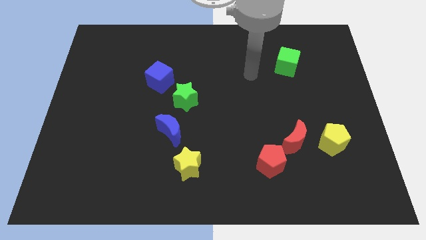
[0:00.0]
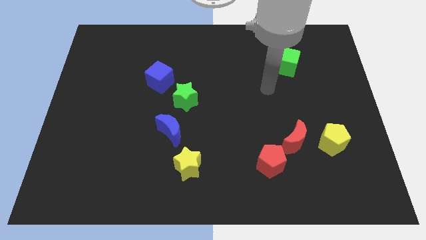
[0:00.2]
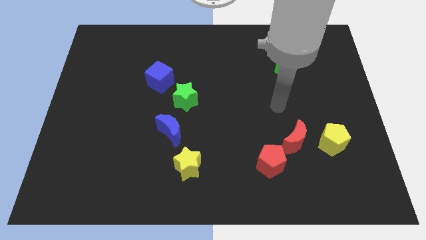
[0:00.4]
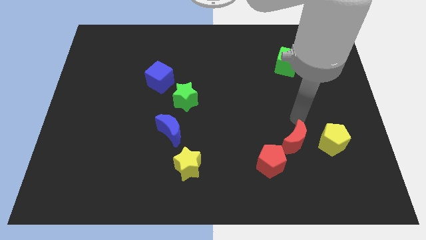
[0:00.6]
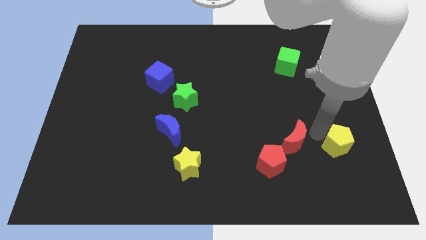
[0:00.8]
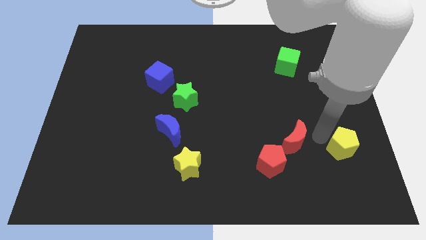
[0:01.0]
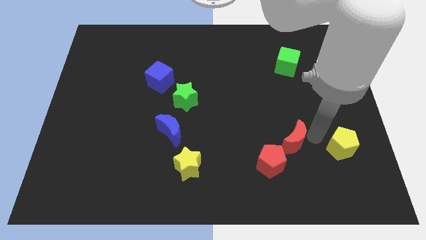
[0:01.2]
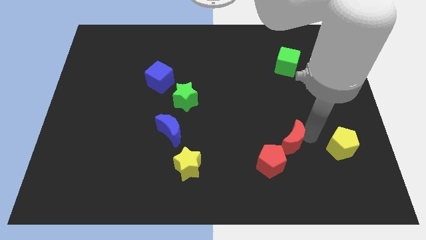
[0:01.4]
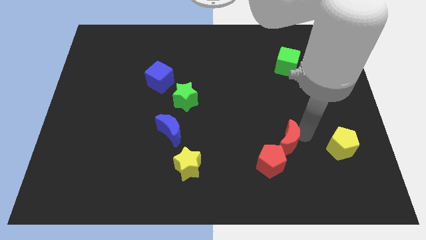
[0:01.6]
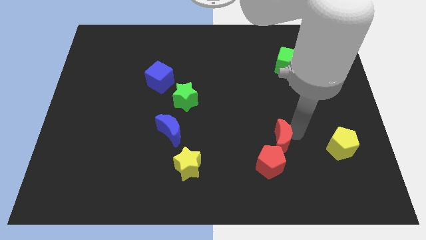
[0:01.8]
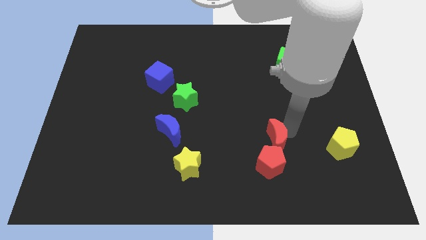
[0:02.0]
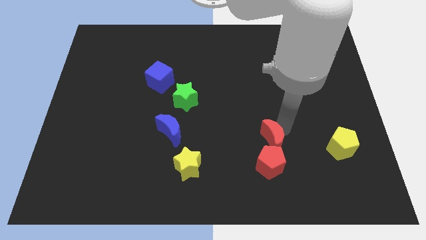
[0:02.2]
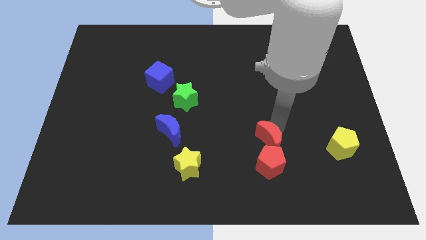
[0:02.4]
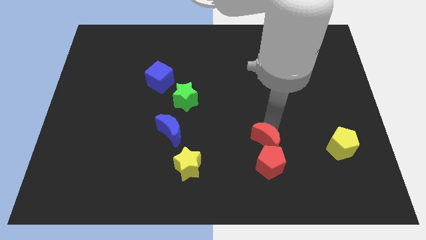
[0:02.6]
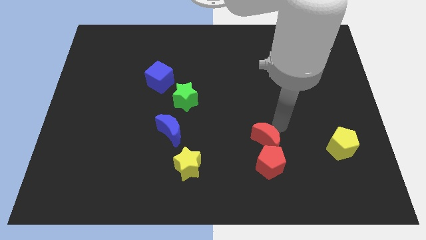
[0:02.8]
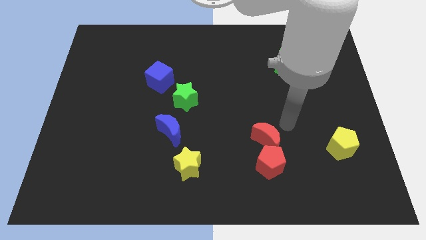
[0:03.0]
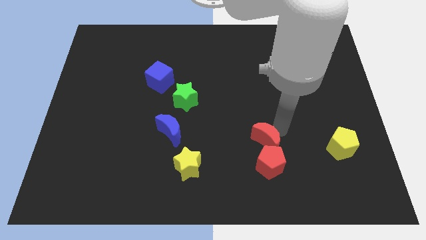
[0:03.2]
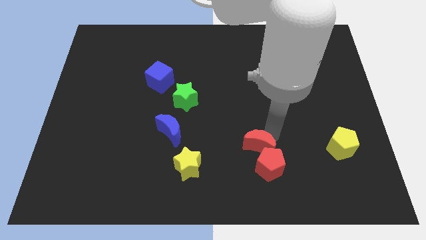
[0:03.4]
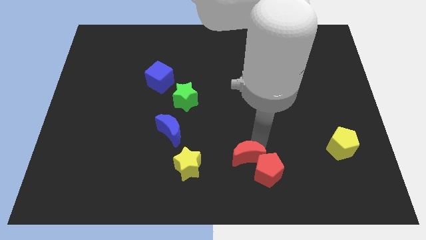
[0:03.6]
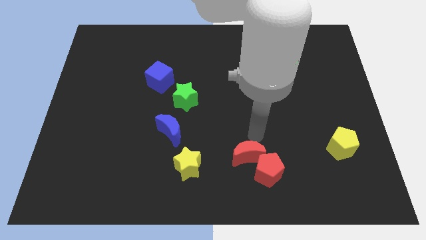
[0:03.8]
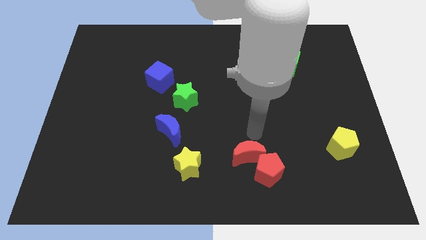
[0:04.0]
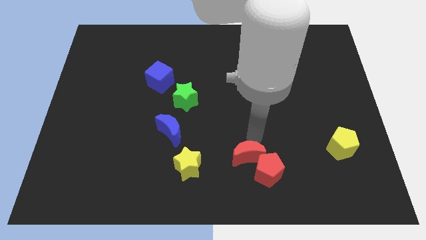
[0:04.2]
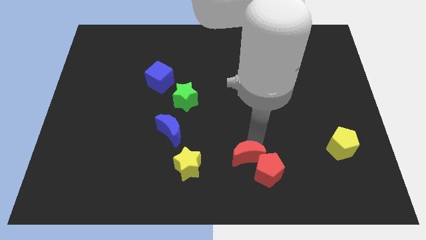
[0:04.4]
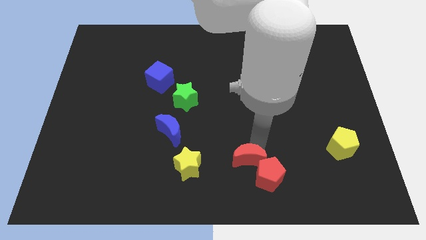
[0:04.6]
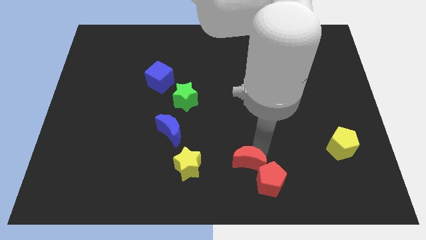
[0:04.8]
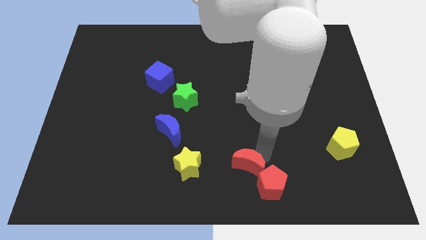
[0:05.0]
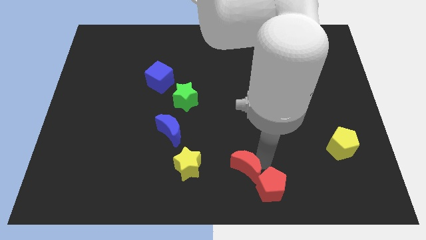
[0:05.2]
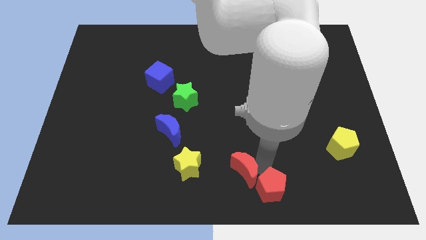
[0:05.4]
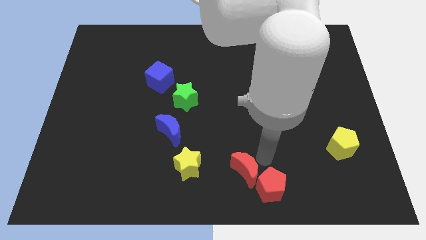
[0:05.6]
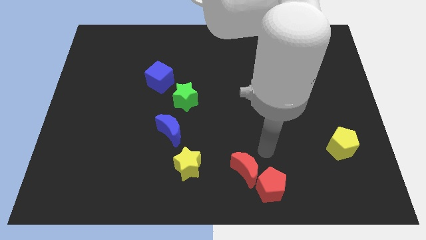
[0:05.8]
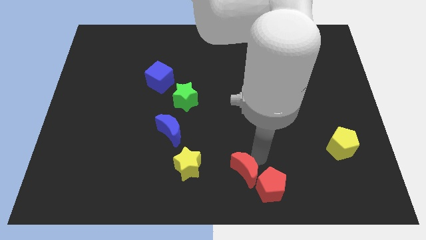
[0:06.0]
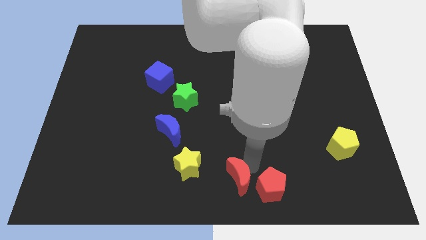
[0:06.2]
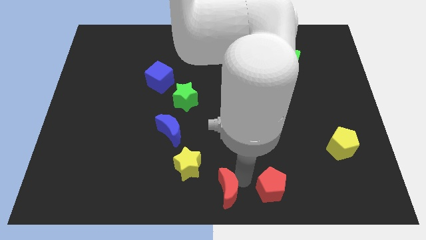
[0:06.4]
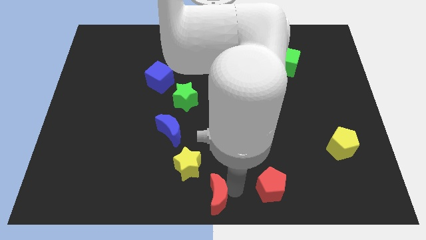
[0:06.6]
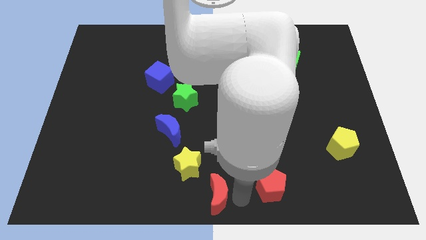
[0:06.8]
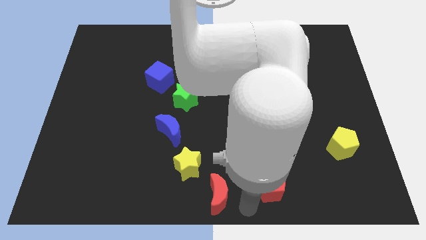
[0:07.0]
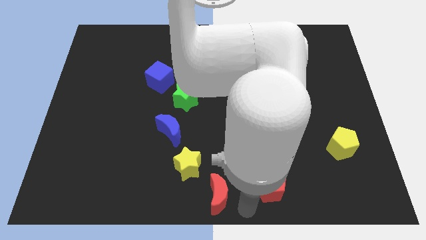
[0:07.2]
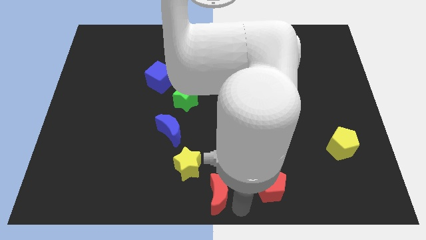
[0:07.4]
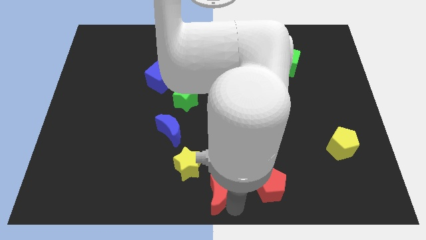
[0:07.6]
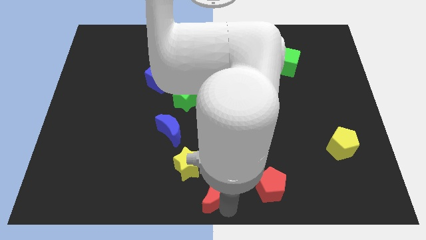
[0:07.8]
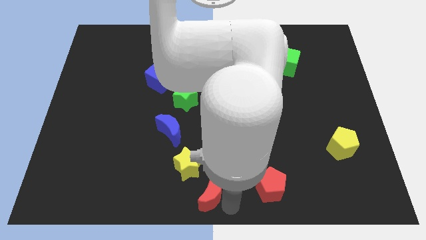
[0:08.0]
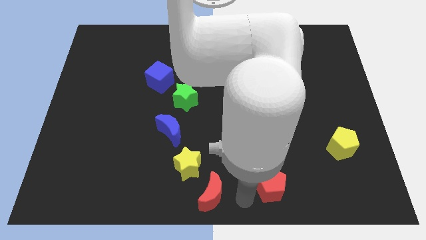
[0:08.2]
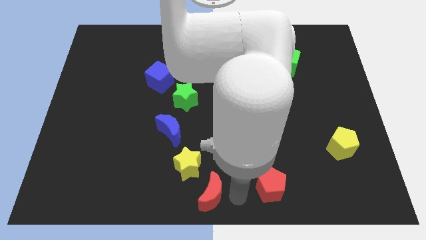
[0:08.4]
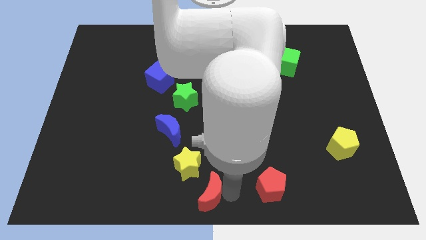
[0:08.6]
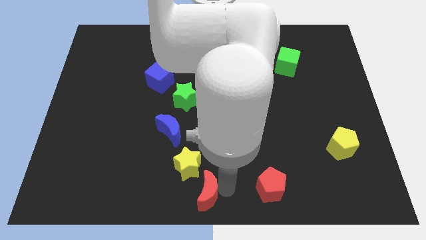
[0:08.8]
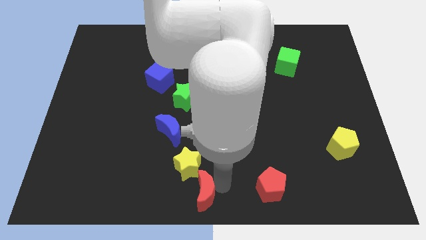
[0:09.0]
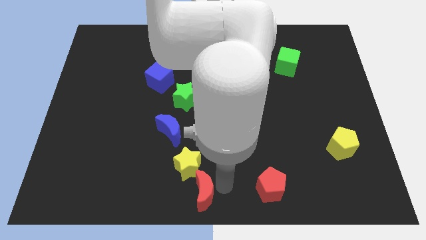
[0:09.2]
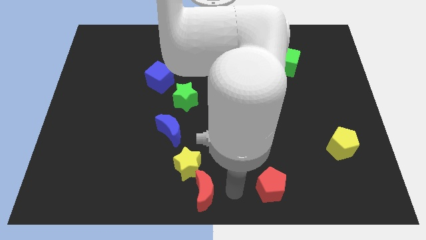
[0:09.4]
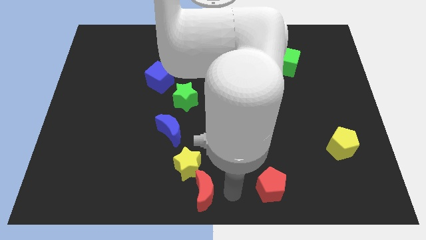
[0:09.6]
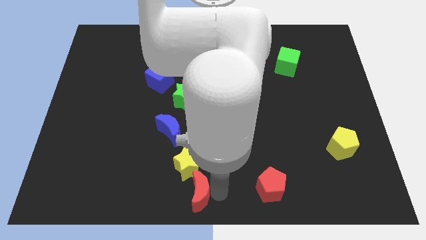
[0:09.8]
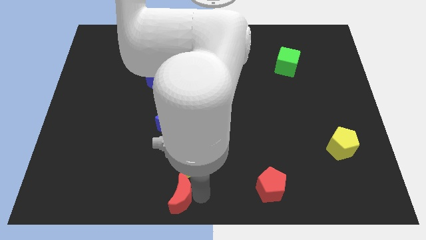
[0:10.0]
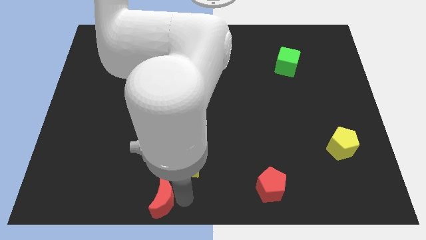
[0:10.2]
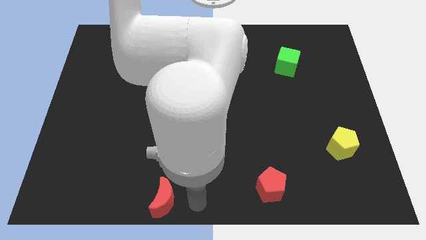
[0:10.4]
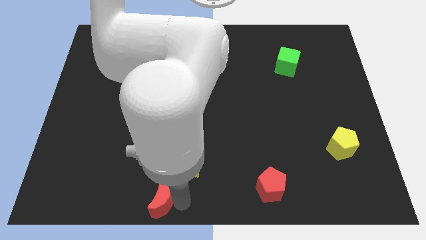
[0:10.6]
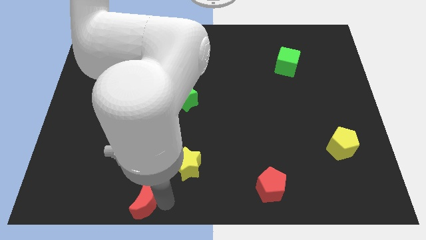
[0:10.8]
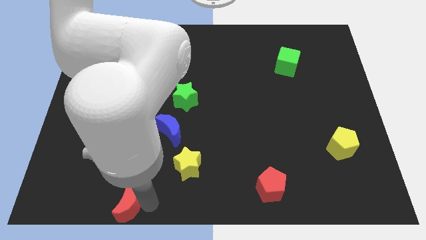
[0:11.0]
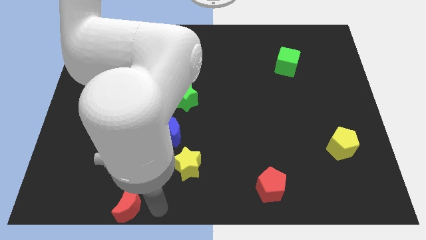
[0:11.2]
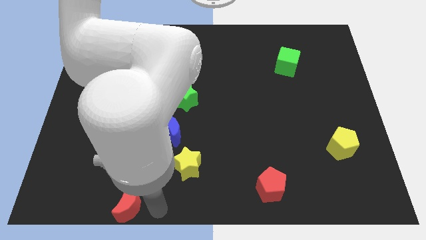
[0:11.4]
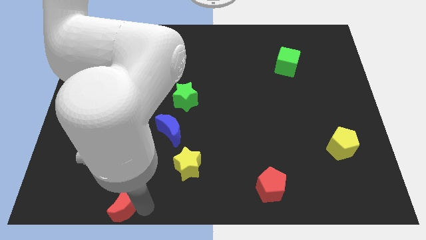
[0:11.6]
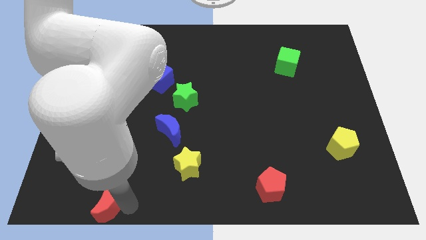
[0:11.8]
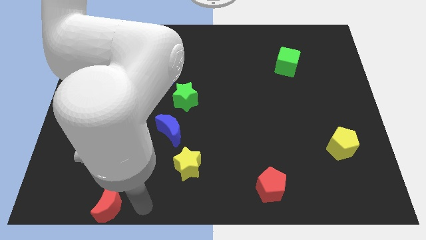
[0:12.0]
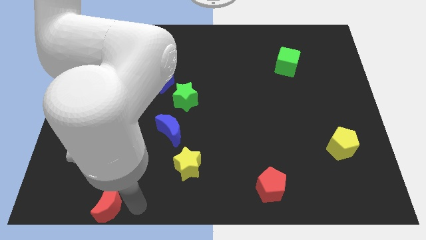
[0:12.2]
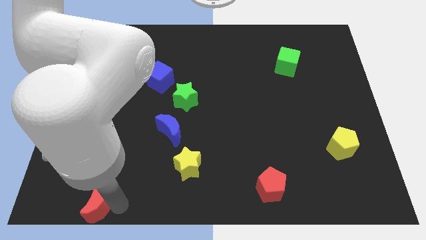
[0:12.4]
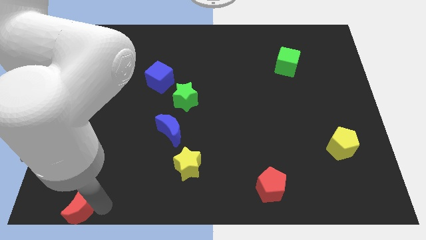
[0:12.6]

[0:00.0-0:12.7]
push the red moon to the bottom left

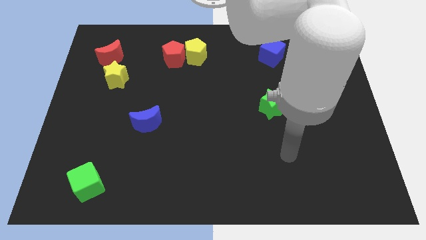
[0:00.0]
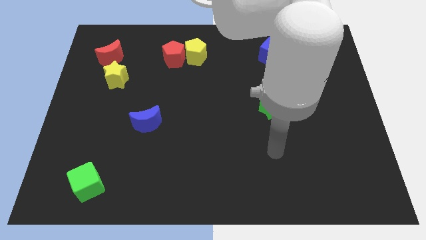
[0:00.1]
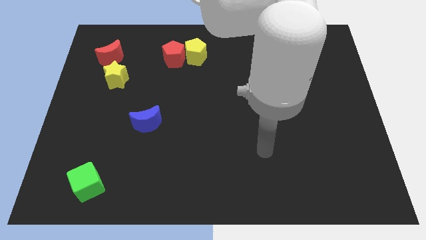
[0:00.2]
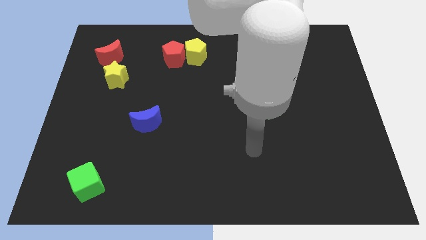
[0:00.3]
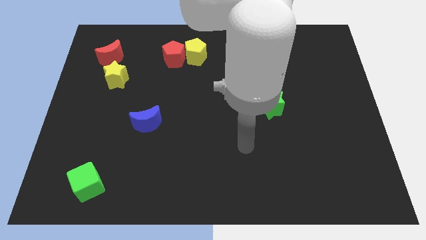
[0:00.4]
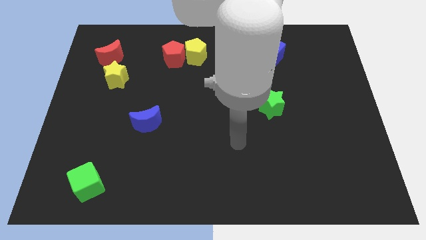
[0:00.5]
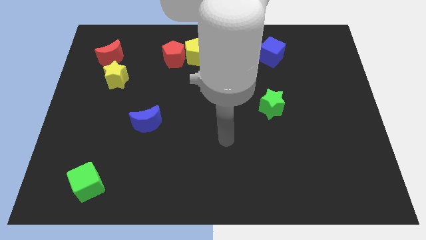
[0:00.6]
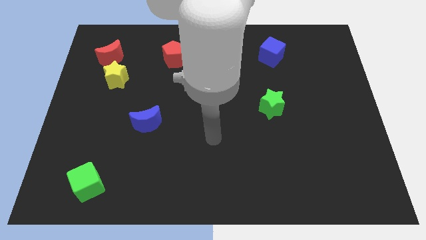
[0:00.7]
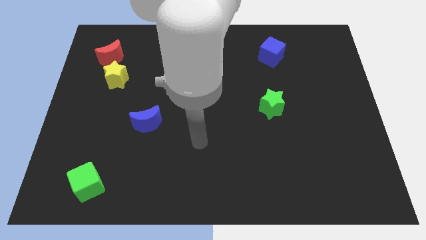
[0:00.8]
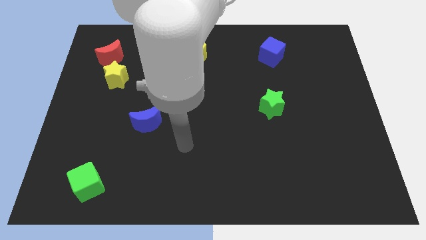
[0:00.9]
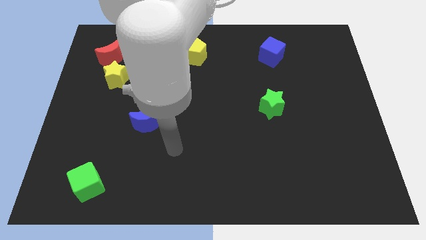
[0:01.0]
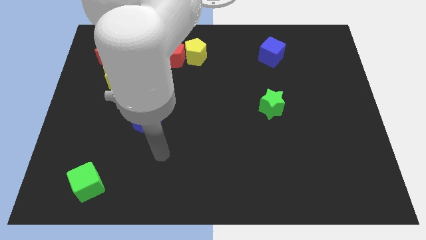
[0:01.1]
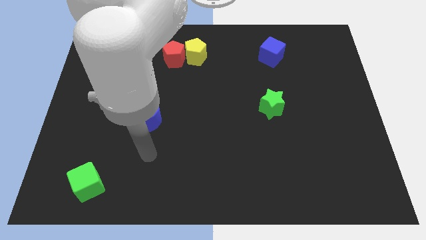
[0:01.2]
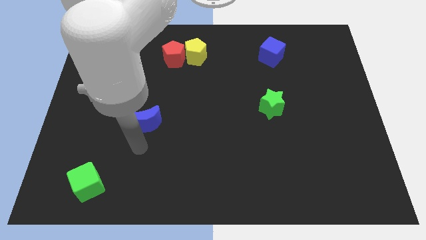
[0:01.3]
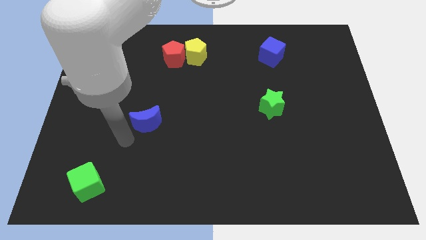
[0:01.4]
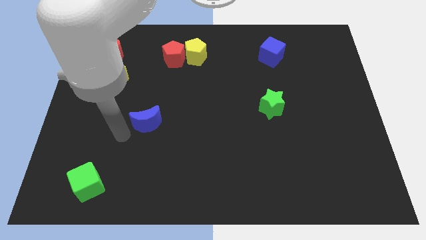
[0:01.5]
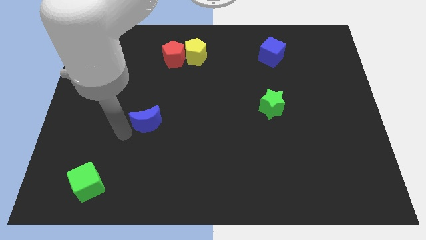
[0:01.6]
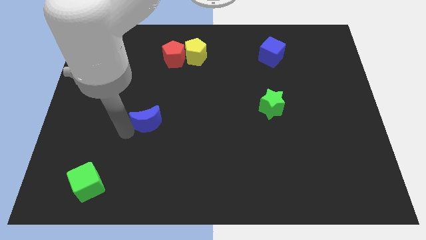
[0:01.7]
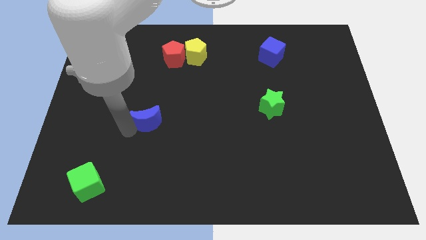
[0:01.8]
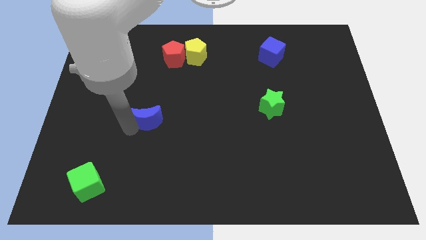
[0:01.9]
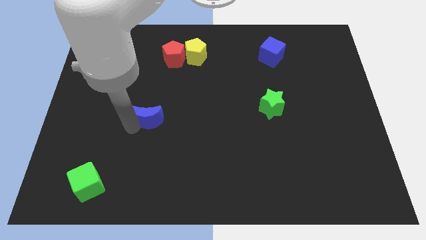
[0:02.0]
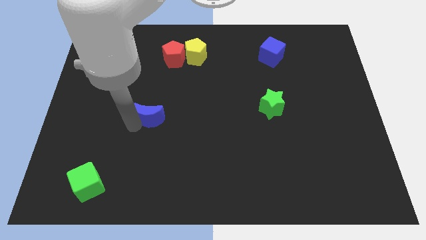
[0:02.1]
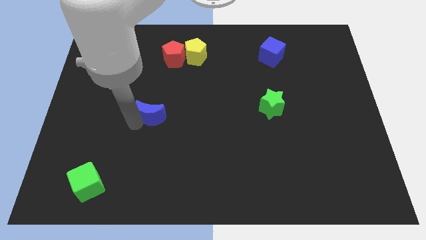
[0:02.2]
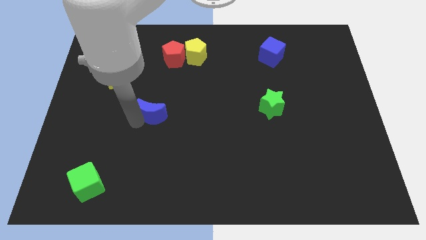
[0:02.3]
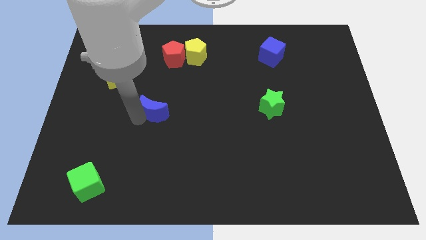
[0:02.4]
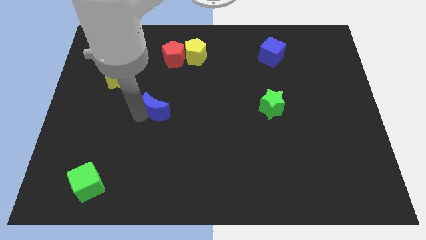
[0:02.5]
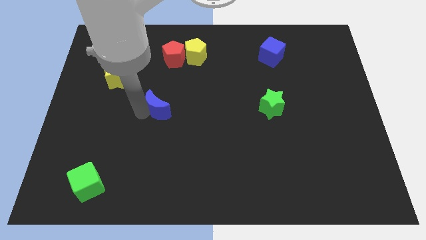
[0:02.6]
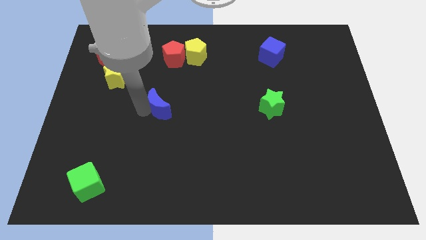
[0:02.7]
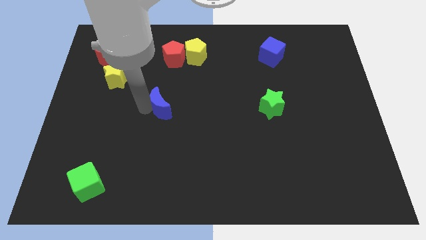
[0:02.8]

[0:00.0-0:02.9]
push the blue moon to the center
